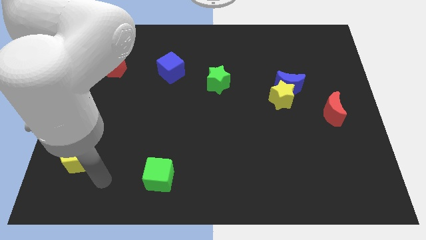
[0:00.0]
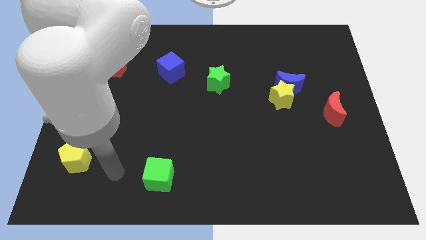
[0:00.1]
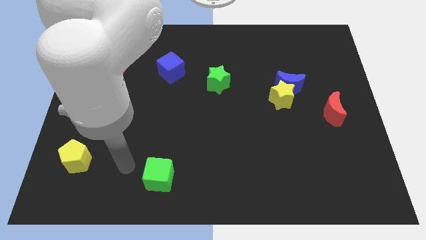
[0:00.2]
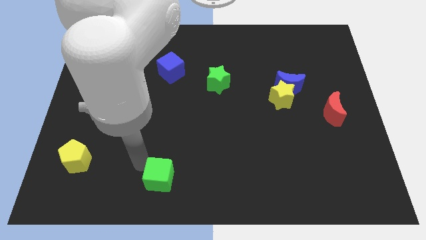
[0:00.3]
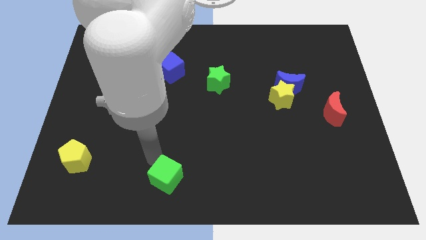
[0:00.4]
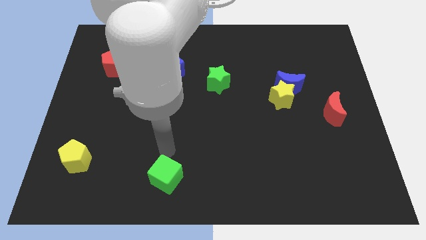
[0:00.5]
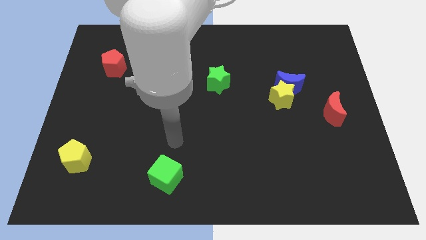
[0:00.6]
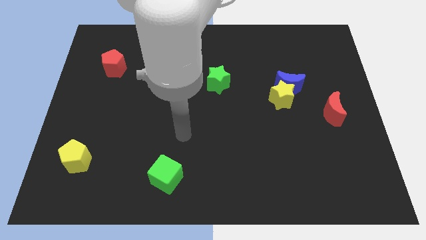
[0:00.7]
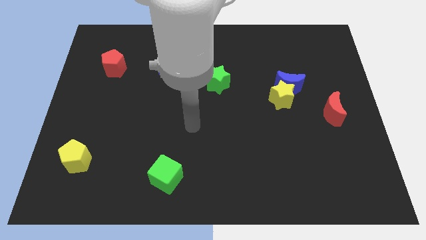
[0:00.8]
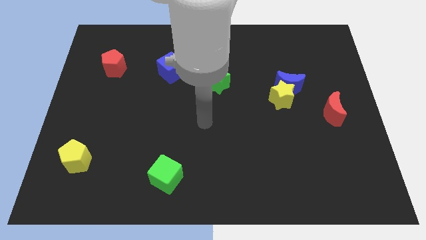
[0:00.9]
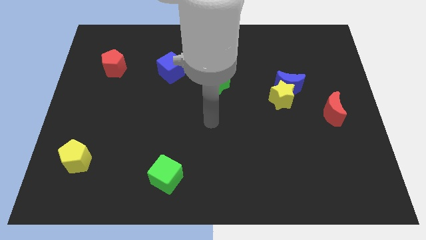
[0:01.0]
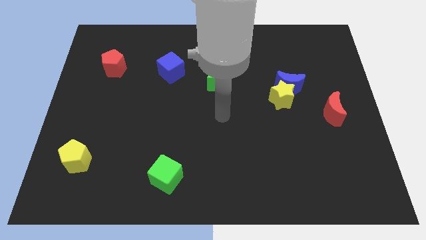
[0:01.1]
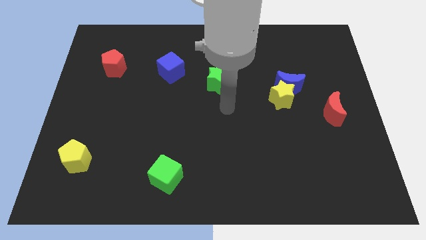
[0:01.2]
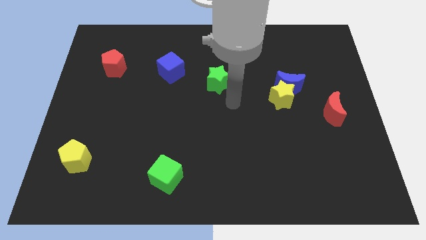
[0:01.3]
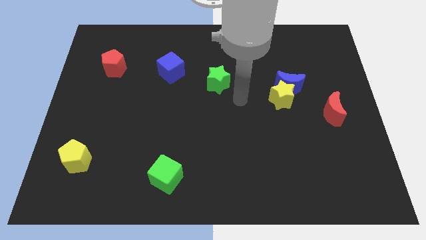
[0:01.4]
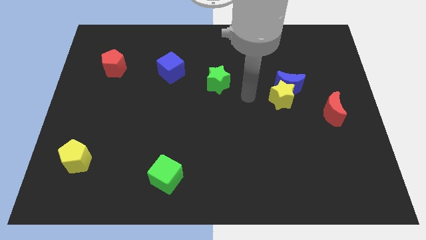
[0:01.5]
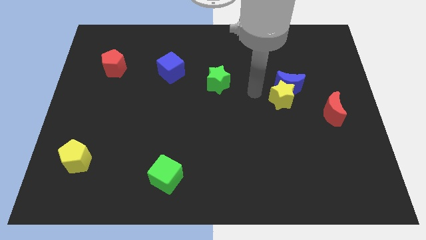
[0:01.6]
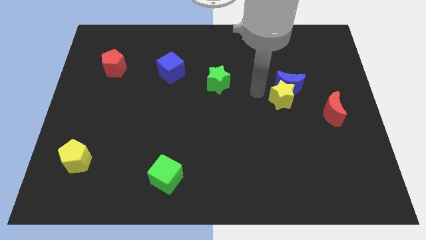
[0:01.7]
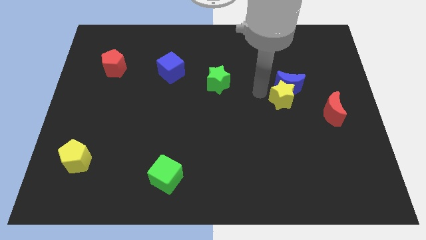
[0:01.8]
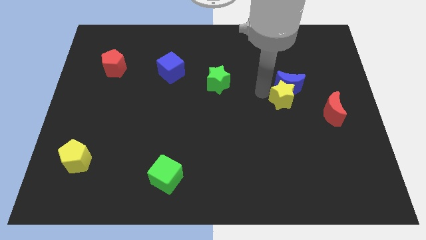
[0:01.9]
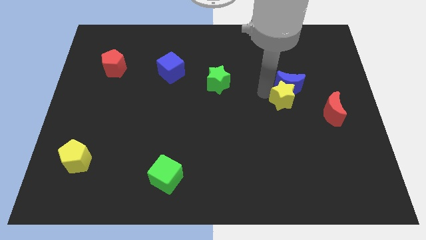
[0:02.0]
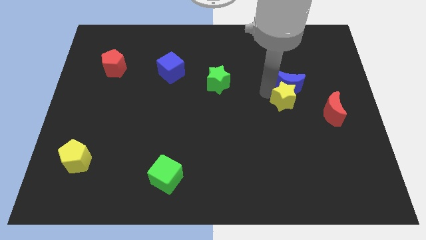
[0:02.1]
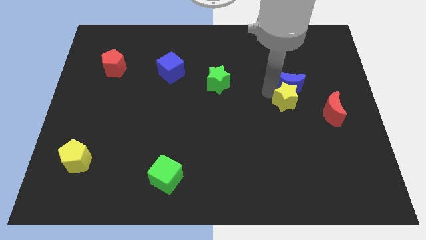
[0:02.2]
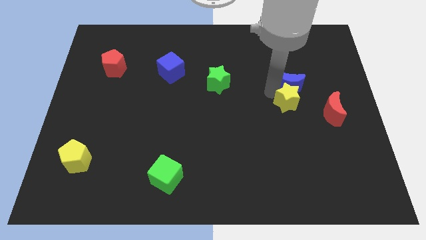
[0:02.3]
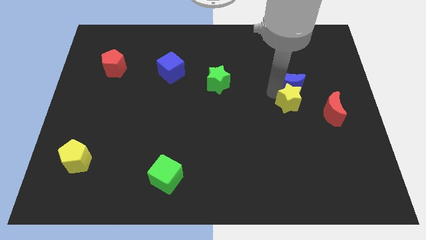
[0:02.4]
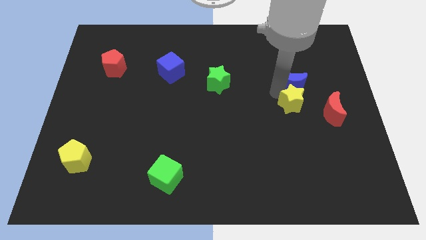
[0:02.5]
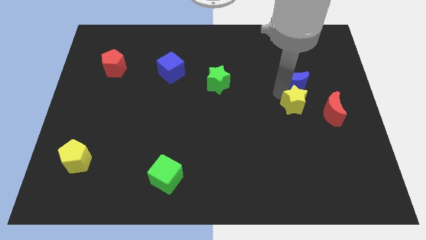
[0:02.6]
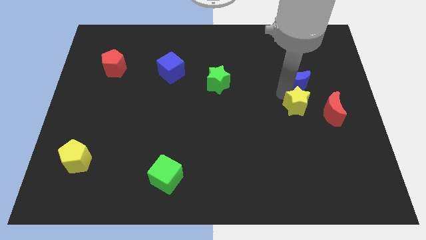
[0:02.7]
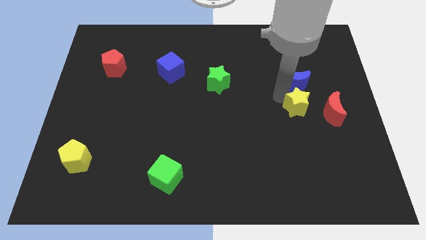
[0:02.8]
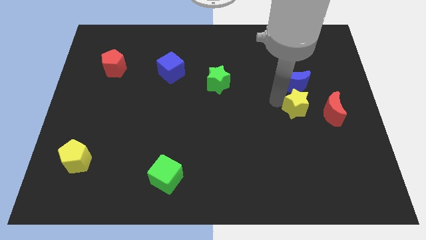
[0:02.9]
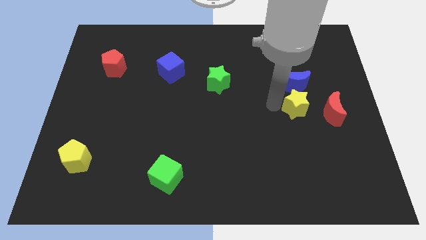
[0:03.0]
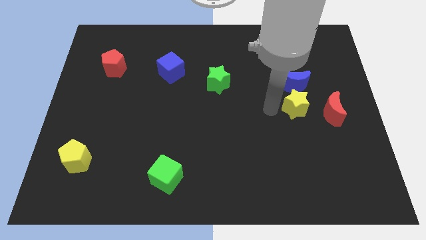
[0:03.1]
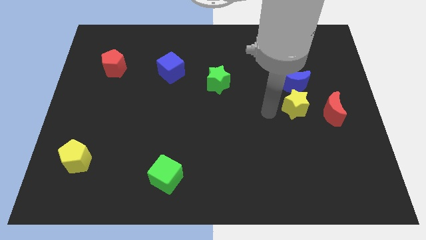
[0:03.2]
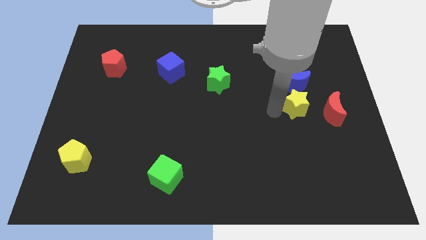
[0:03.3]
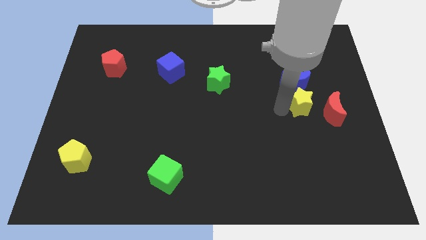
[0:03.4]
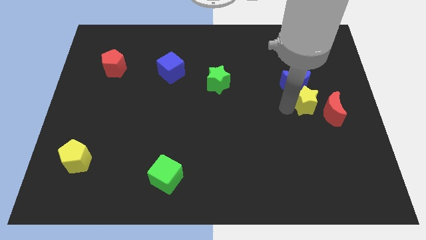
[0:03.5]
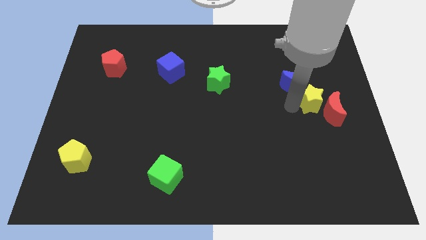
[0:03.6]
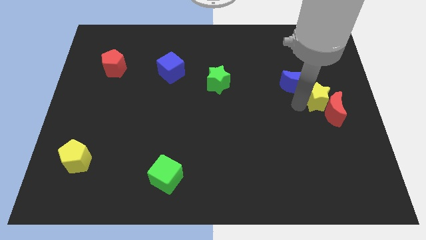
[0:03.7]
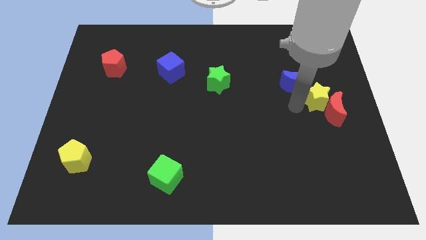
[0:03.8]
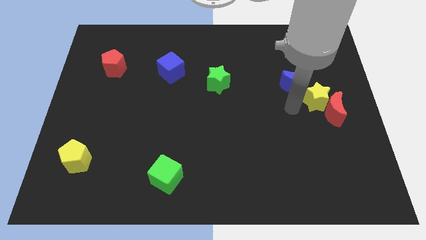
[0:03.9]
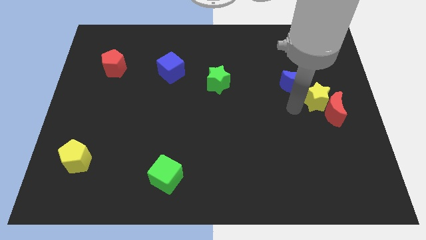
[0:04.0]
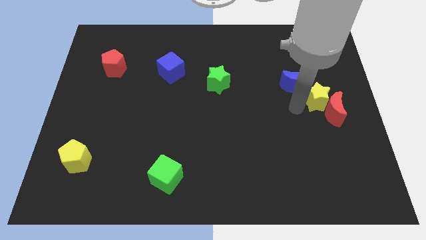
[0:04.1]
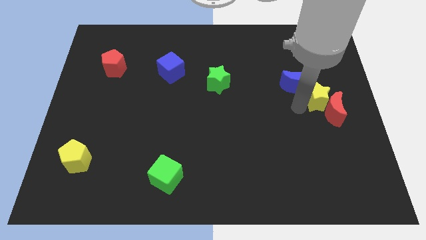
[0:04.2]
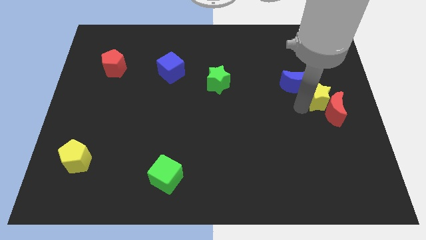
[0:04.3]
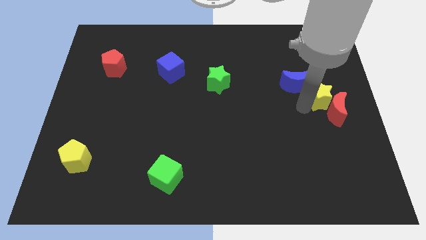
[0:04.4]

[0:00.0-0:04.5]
push the yellow star to the right side

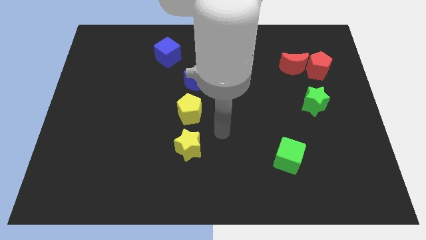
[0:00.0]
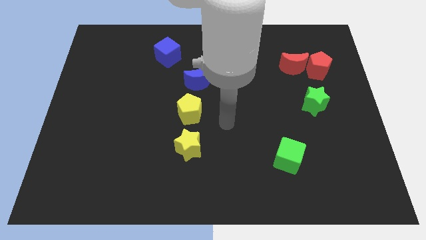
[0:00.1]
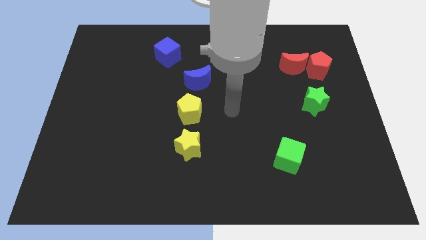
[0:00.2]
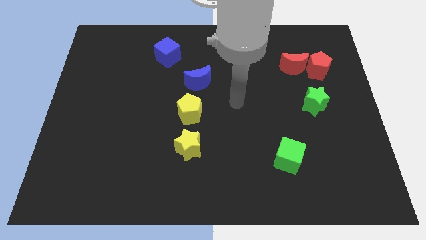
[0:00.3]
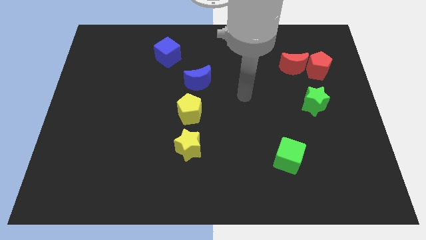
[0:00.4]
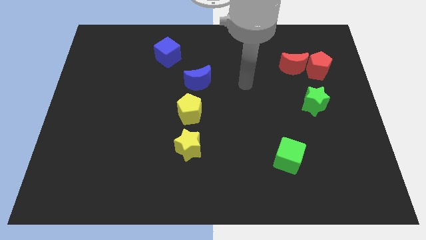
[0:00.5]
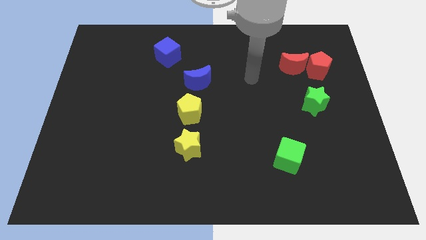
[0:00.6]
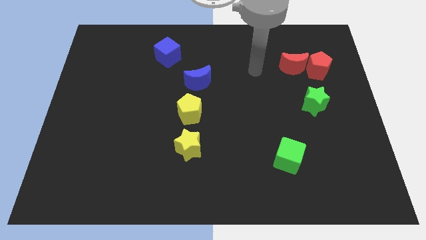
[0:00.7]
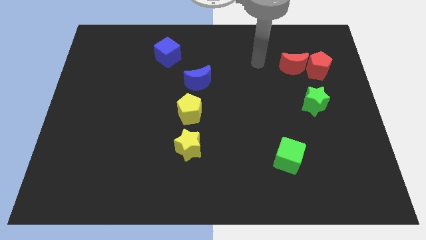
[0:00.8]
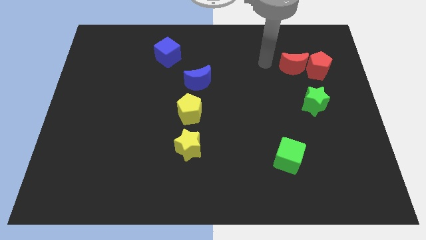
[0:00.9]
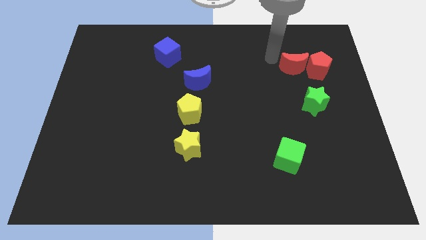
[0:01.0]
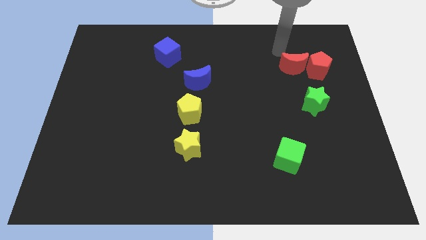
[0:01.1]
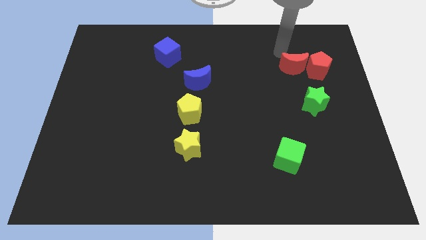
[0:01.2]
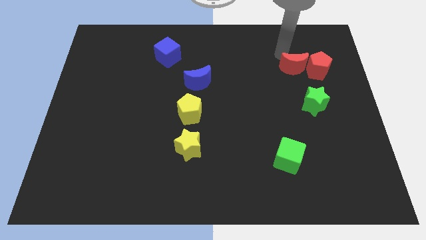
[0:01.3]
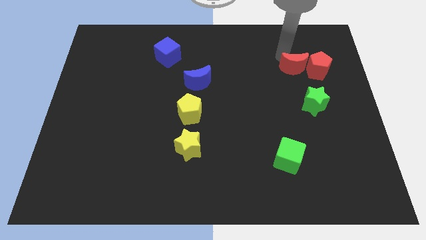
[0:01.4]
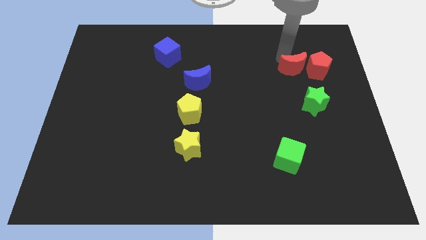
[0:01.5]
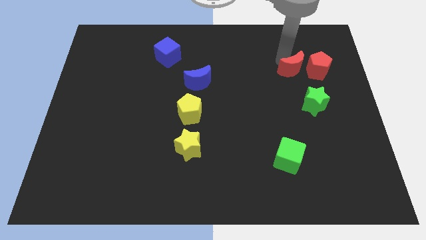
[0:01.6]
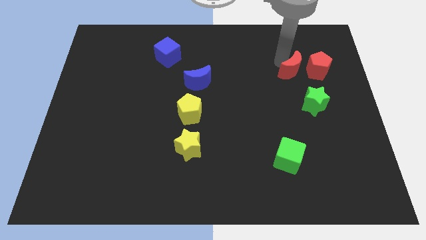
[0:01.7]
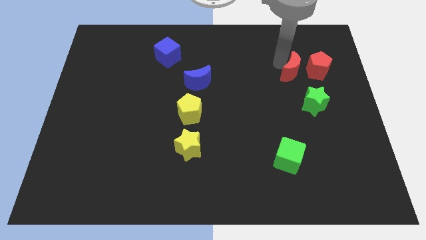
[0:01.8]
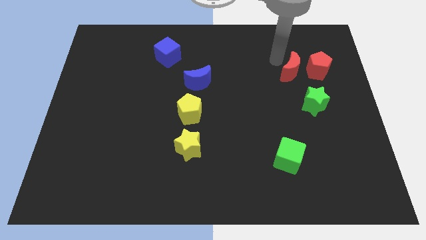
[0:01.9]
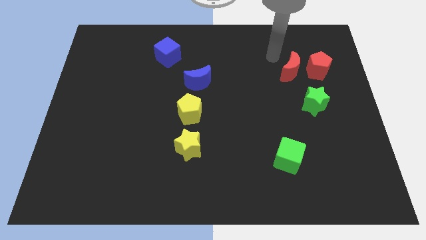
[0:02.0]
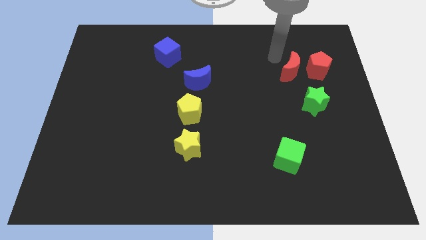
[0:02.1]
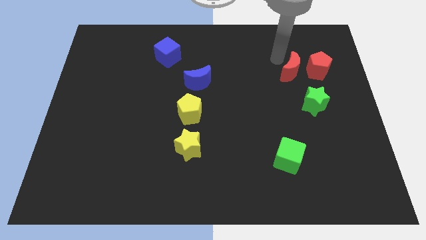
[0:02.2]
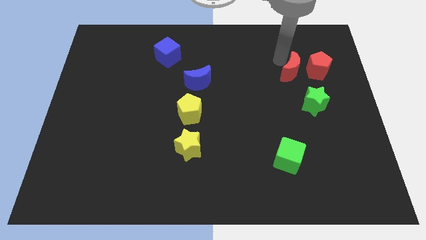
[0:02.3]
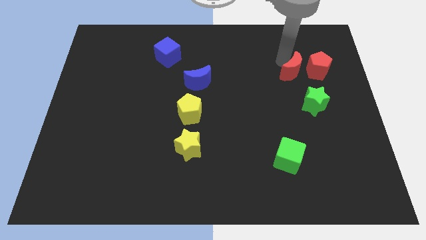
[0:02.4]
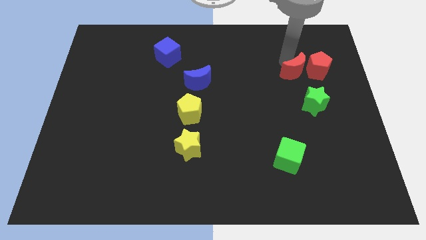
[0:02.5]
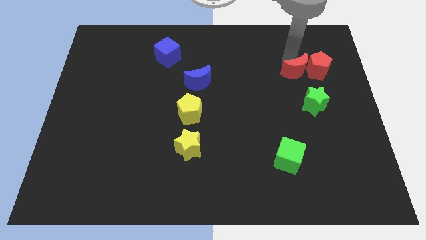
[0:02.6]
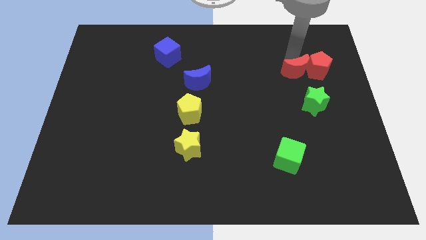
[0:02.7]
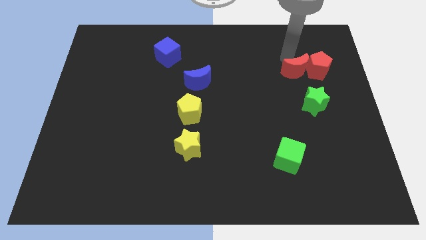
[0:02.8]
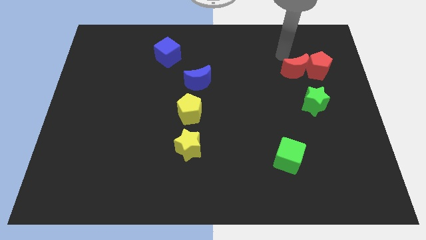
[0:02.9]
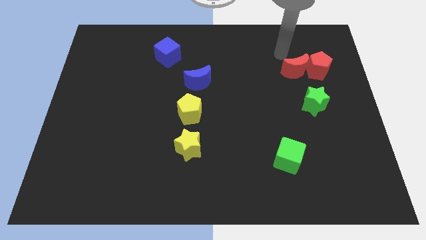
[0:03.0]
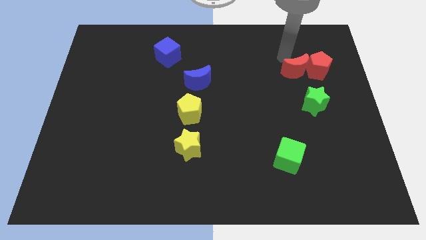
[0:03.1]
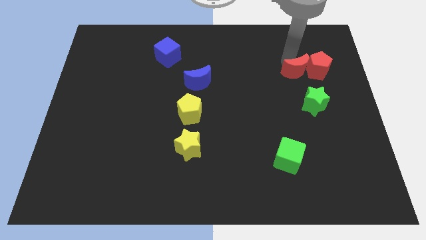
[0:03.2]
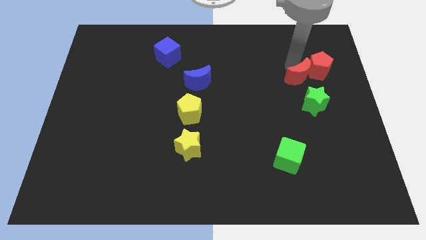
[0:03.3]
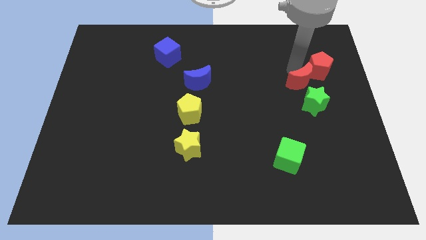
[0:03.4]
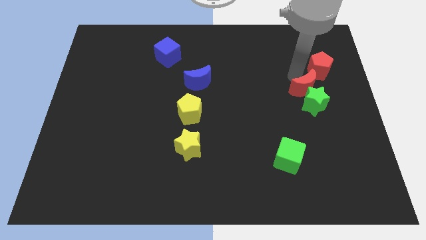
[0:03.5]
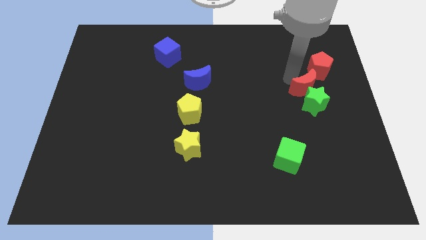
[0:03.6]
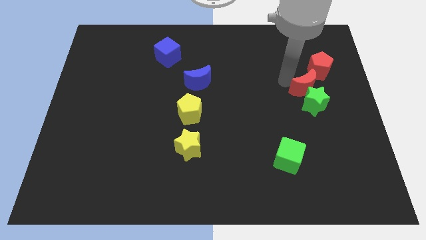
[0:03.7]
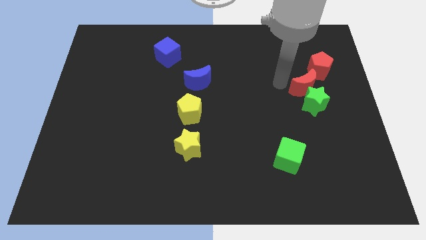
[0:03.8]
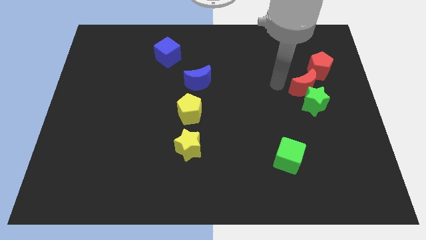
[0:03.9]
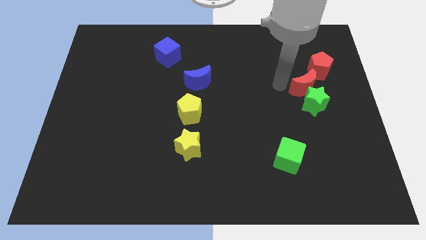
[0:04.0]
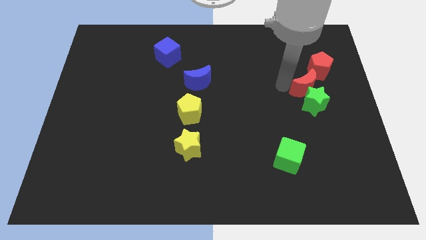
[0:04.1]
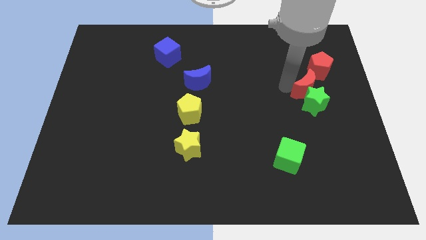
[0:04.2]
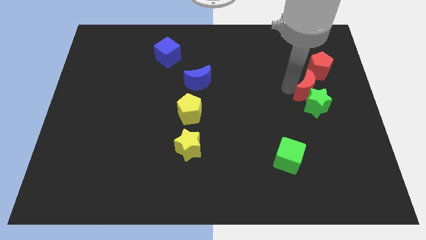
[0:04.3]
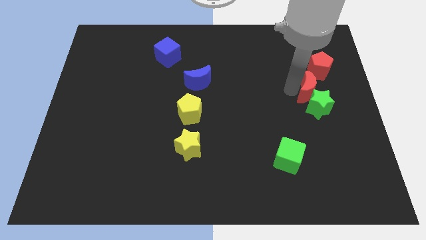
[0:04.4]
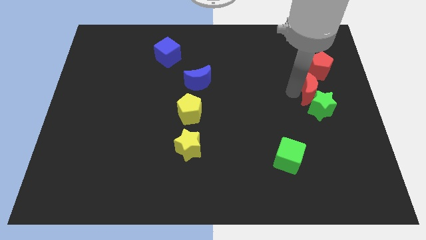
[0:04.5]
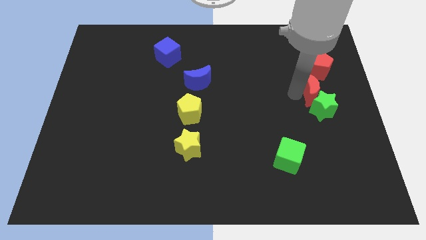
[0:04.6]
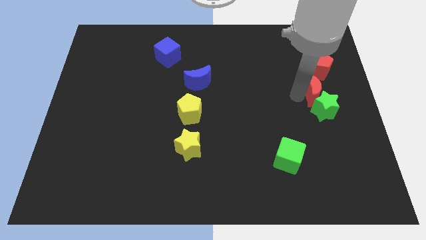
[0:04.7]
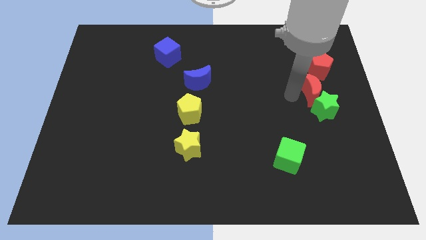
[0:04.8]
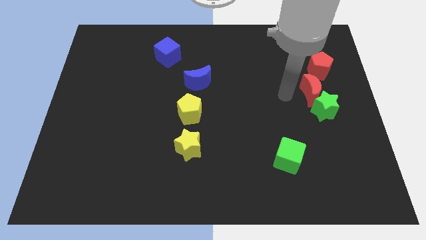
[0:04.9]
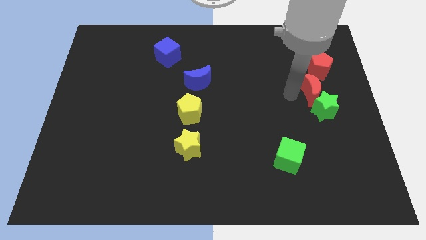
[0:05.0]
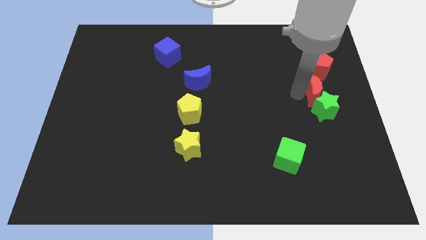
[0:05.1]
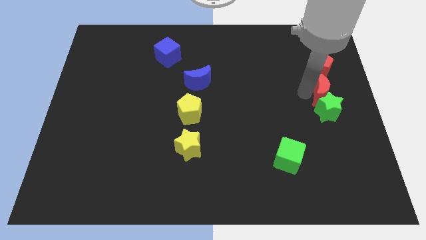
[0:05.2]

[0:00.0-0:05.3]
slide the red moon to the center right
